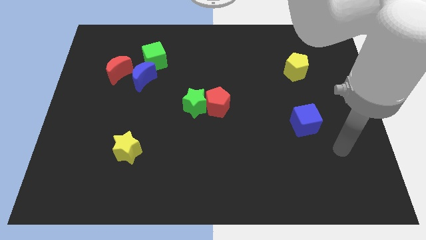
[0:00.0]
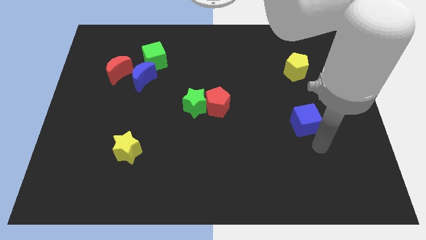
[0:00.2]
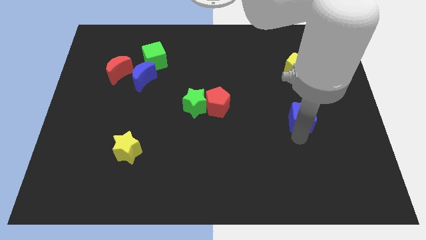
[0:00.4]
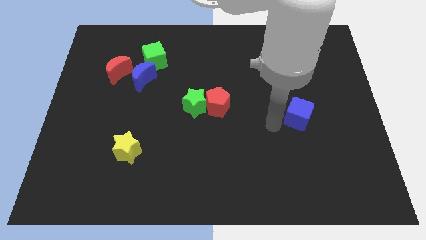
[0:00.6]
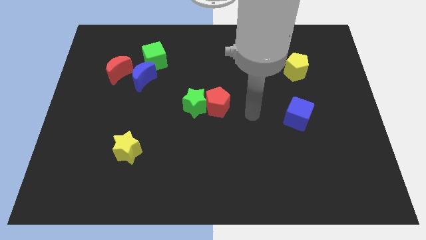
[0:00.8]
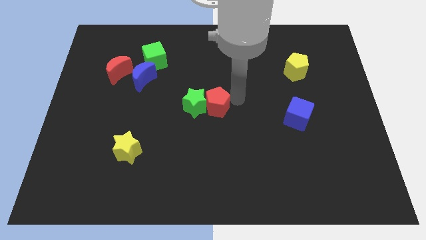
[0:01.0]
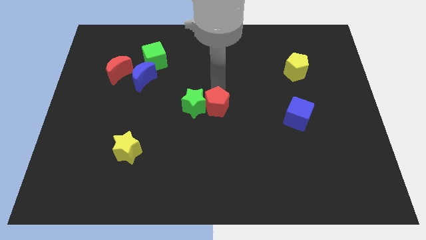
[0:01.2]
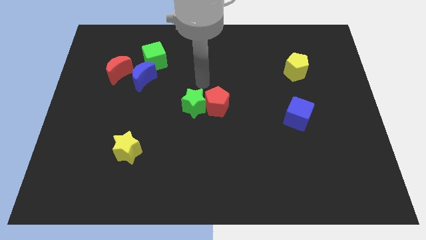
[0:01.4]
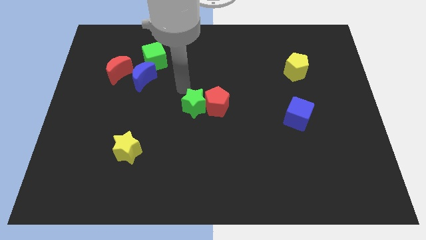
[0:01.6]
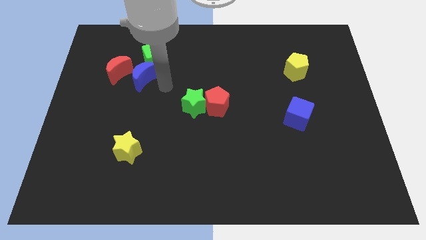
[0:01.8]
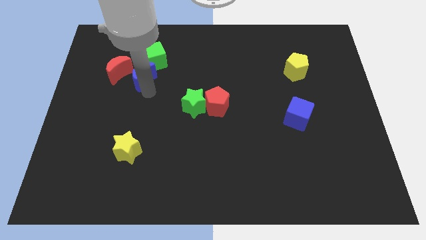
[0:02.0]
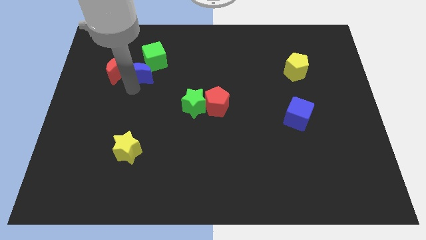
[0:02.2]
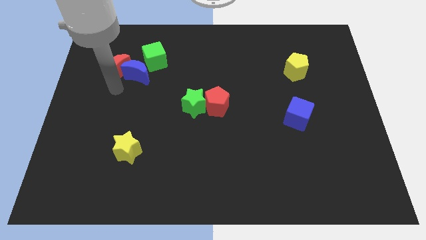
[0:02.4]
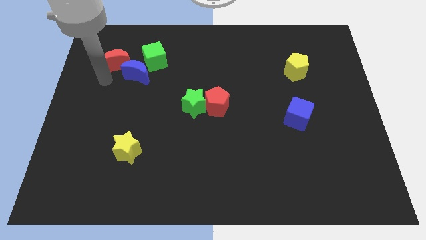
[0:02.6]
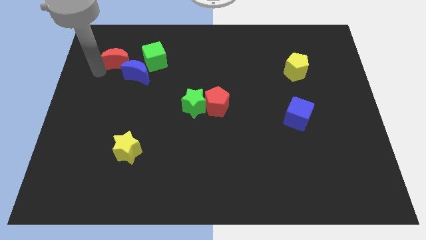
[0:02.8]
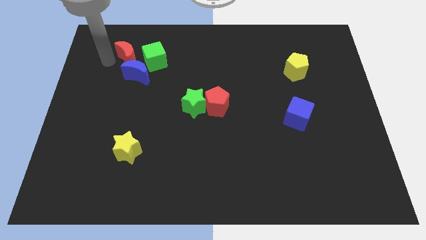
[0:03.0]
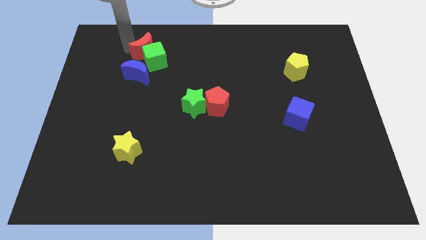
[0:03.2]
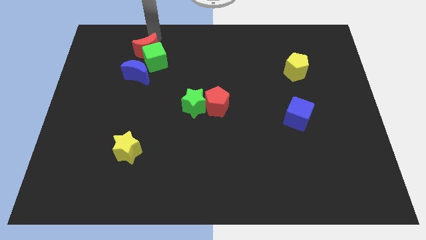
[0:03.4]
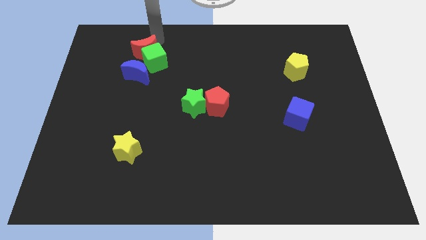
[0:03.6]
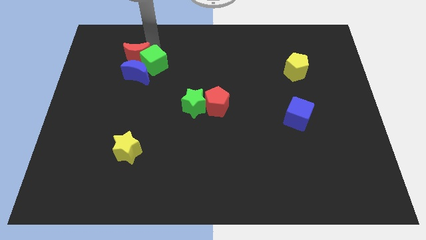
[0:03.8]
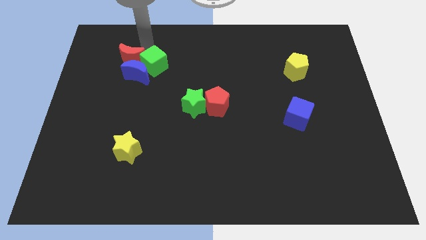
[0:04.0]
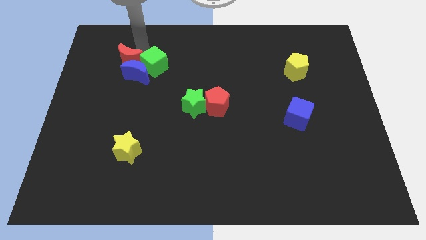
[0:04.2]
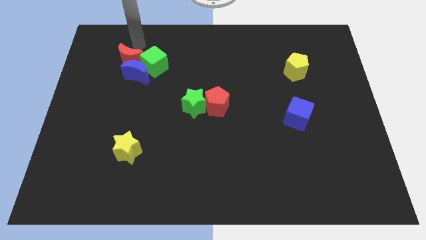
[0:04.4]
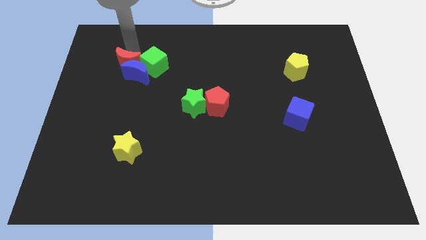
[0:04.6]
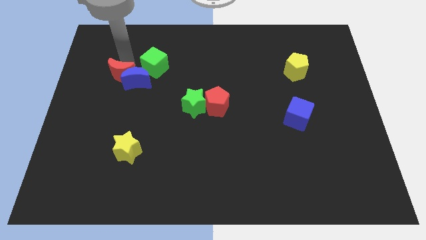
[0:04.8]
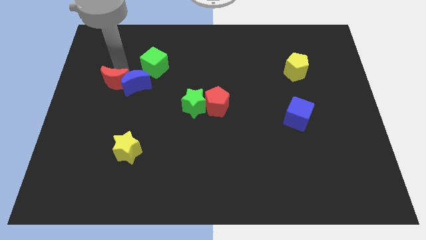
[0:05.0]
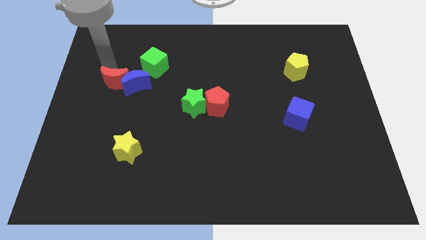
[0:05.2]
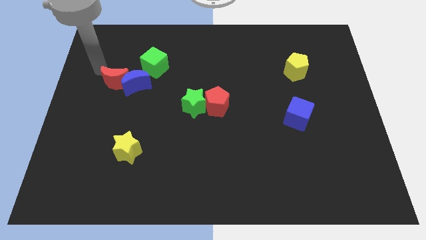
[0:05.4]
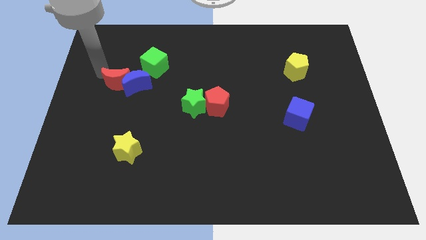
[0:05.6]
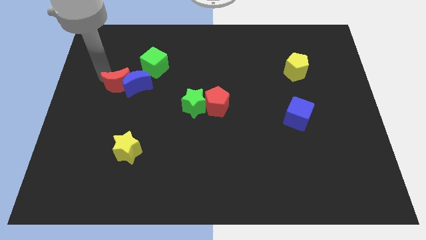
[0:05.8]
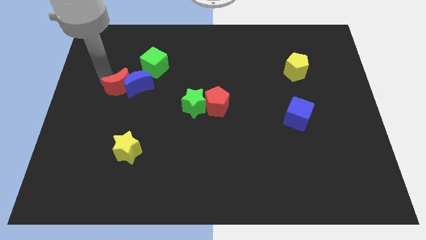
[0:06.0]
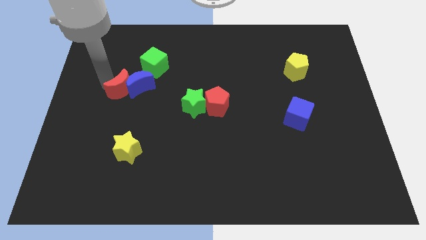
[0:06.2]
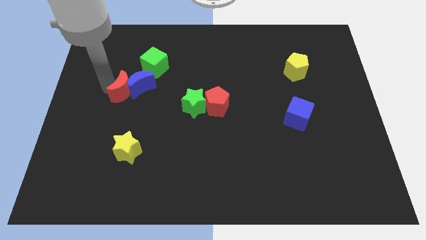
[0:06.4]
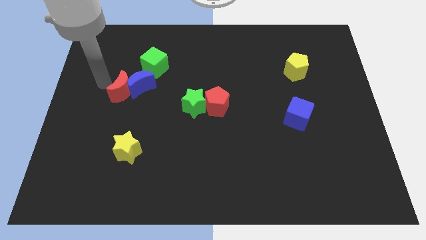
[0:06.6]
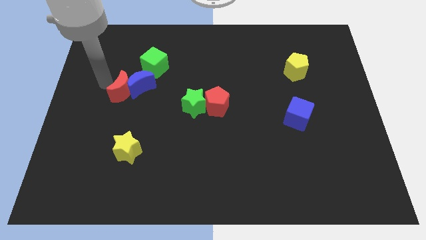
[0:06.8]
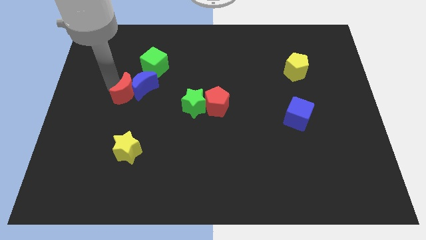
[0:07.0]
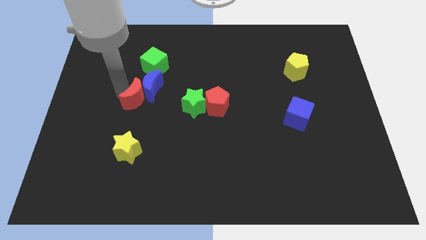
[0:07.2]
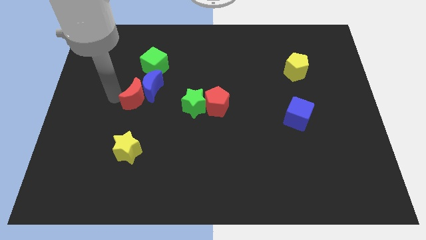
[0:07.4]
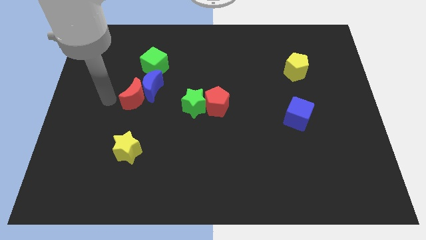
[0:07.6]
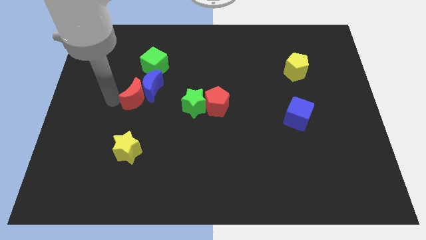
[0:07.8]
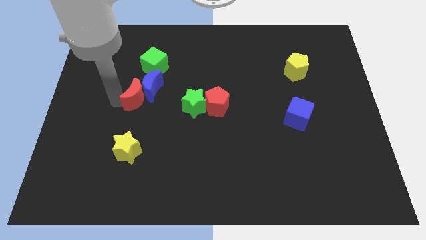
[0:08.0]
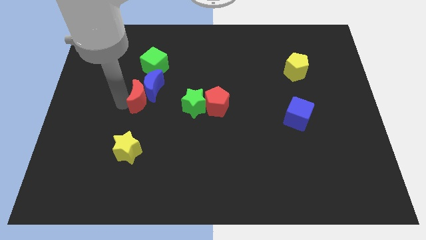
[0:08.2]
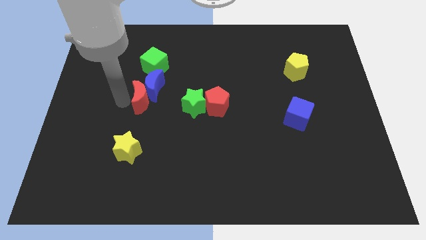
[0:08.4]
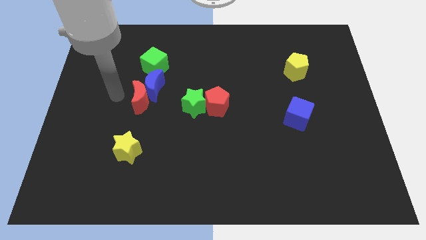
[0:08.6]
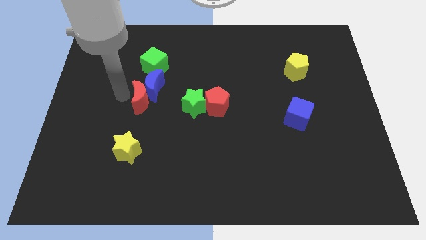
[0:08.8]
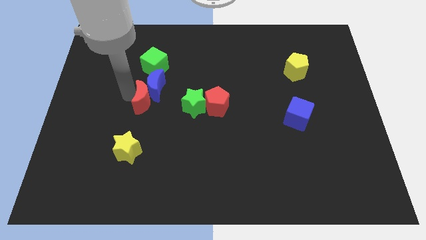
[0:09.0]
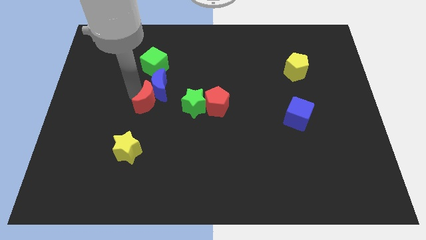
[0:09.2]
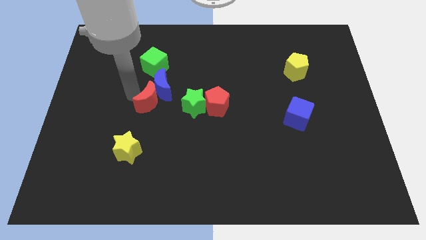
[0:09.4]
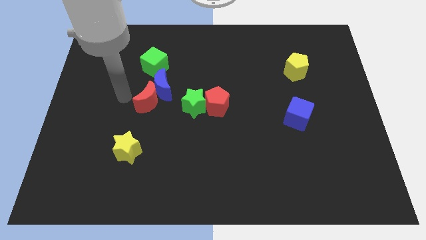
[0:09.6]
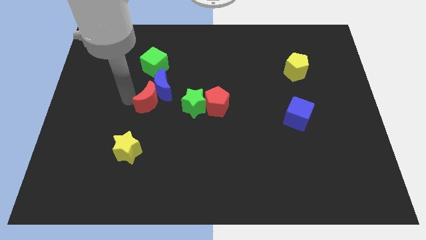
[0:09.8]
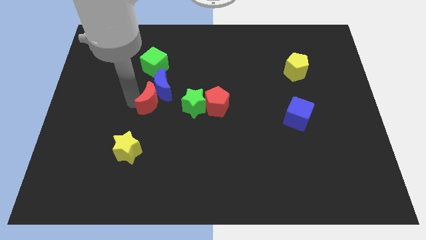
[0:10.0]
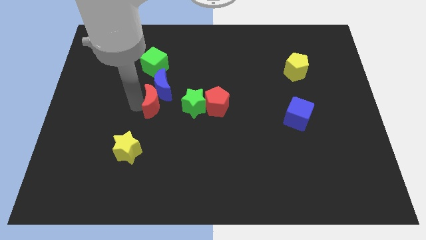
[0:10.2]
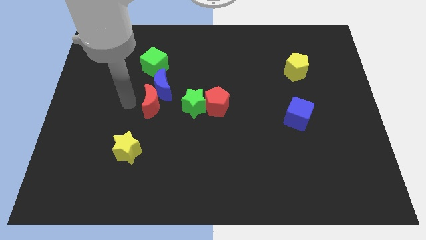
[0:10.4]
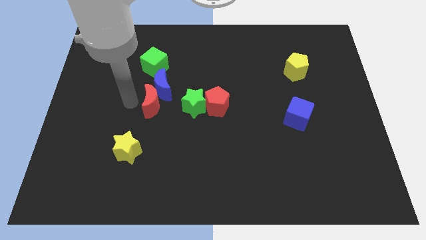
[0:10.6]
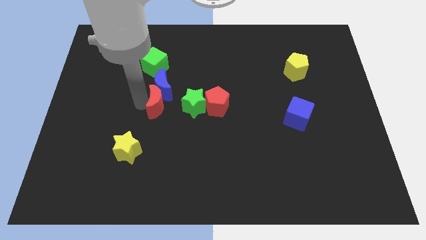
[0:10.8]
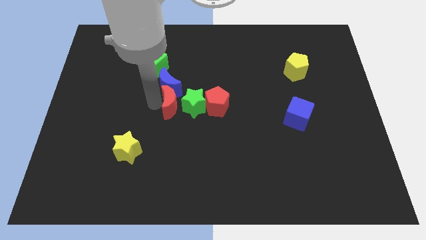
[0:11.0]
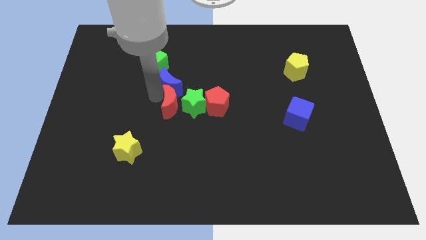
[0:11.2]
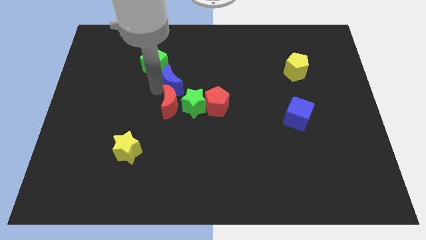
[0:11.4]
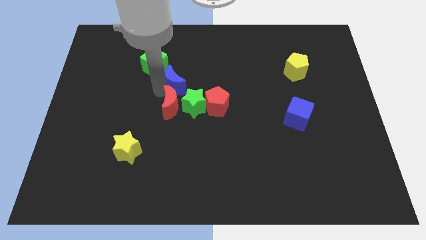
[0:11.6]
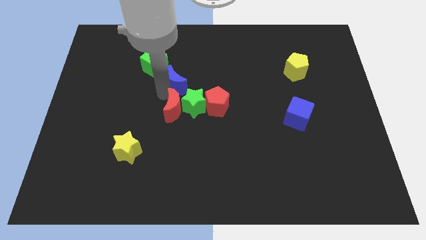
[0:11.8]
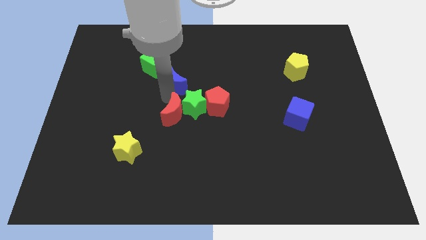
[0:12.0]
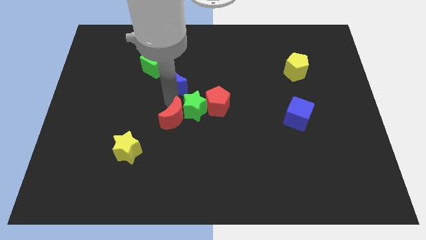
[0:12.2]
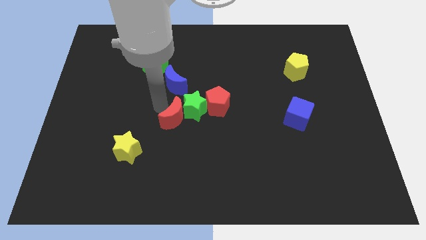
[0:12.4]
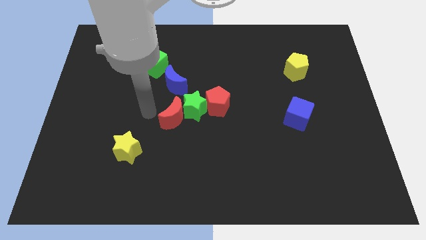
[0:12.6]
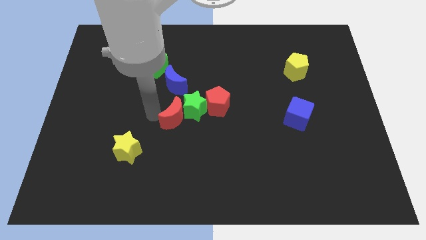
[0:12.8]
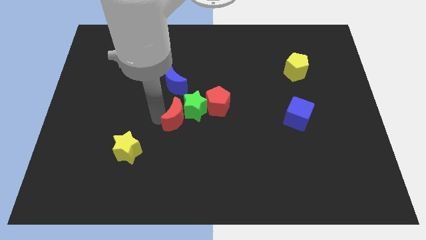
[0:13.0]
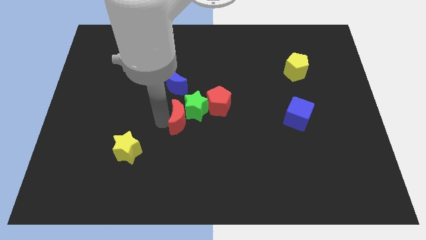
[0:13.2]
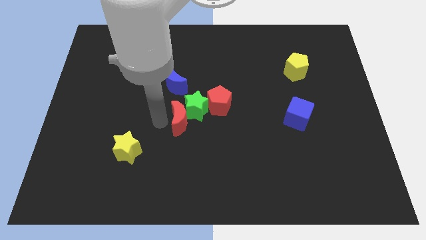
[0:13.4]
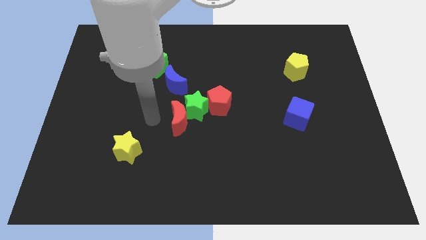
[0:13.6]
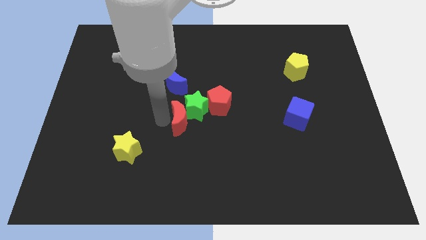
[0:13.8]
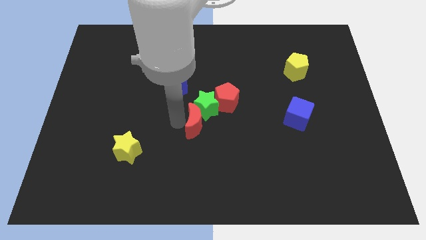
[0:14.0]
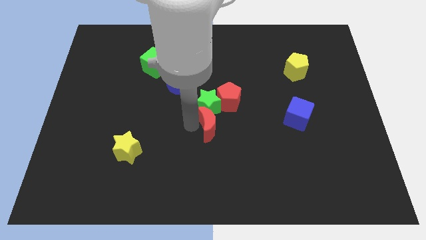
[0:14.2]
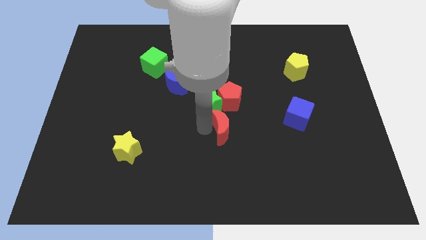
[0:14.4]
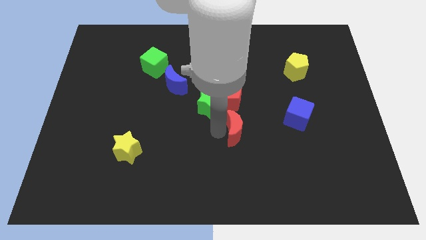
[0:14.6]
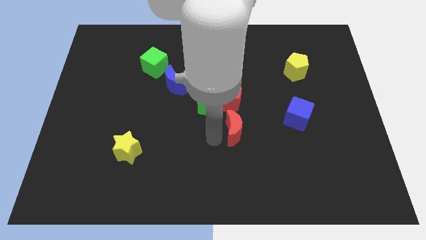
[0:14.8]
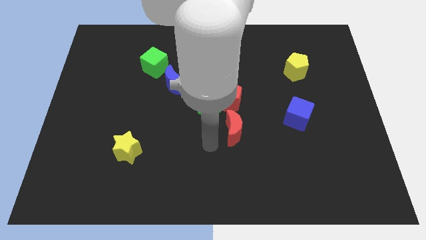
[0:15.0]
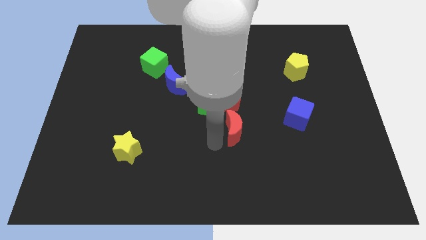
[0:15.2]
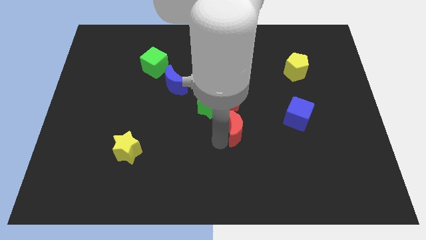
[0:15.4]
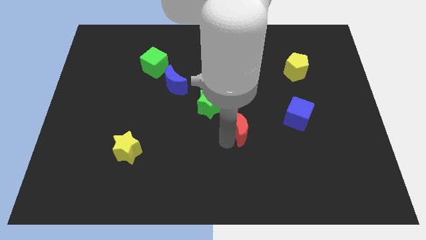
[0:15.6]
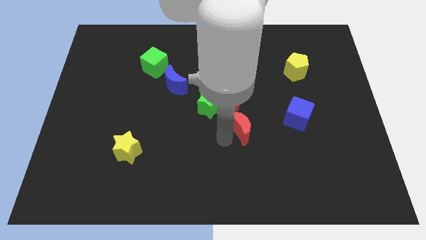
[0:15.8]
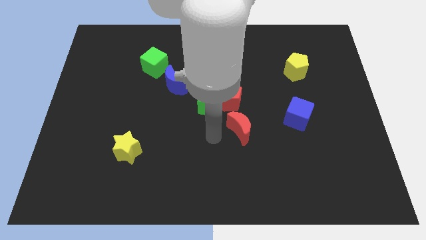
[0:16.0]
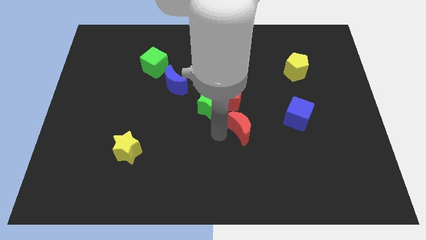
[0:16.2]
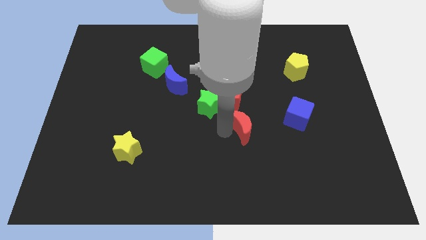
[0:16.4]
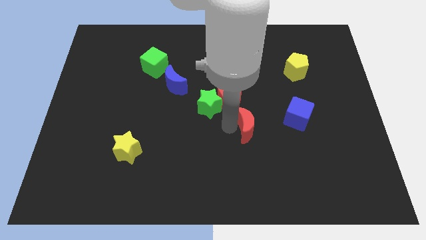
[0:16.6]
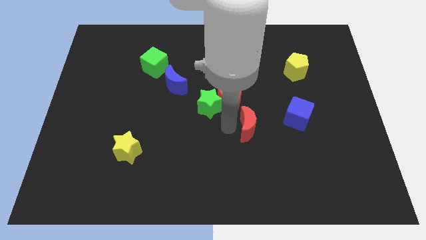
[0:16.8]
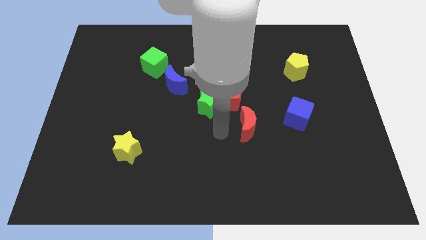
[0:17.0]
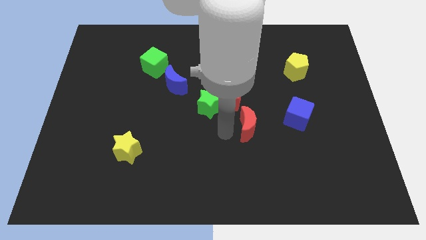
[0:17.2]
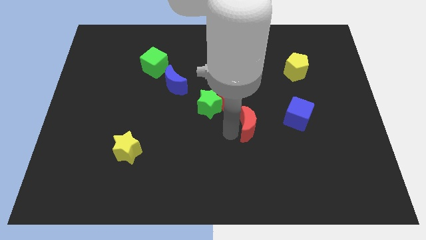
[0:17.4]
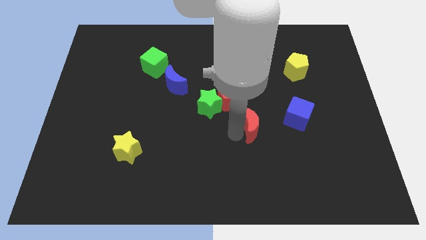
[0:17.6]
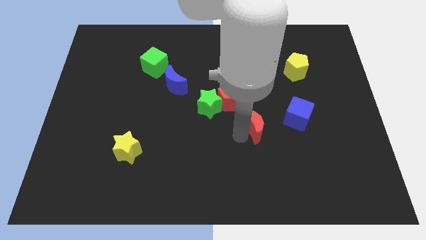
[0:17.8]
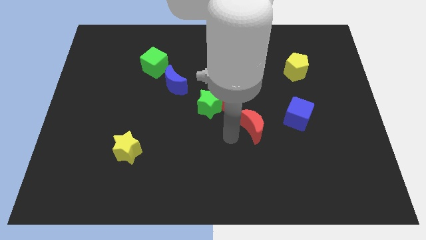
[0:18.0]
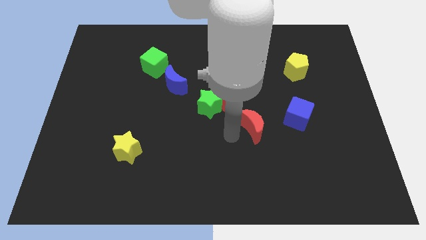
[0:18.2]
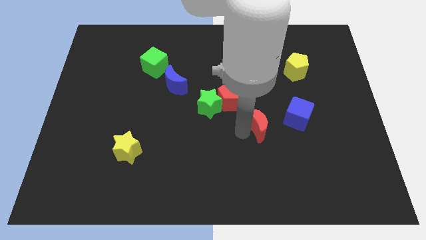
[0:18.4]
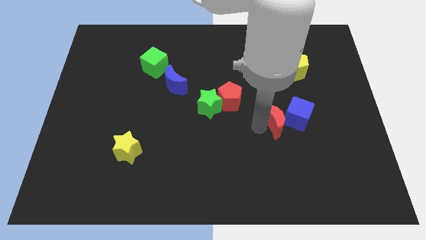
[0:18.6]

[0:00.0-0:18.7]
put the red moon close to the blue cube
